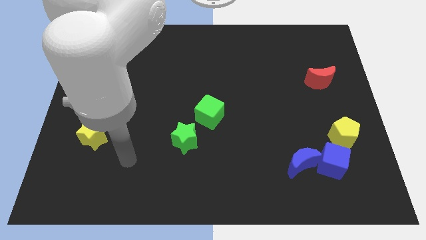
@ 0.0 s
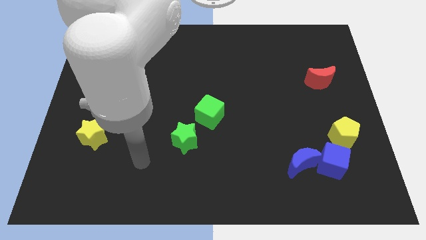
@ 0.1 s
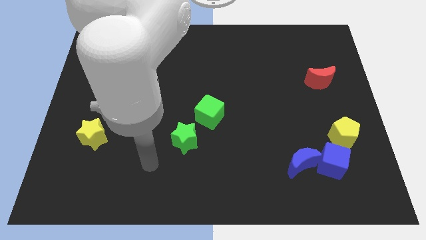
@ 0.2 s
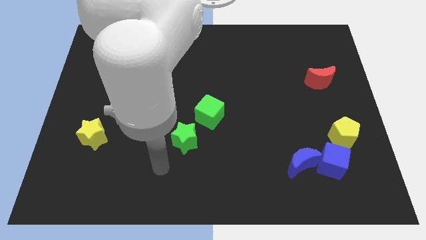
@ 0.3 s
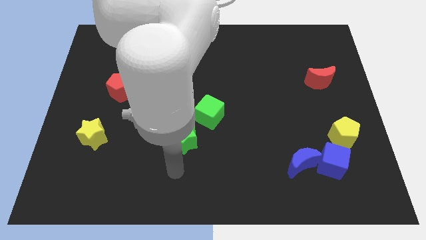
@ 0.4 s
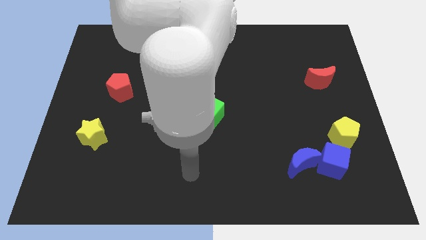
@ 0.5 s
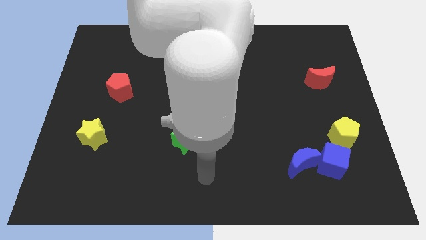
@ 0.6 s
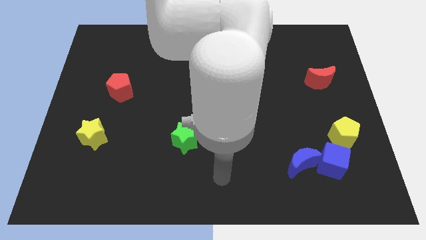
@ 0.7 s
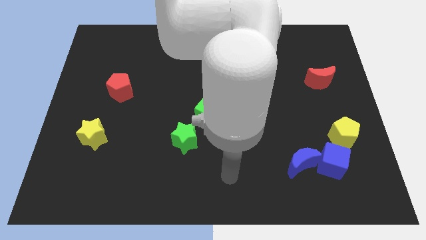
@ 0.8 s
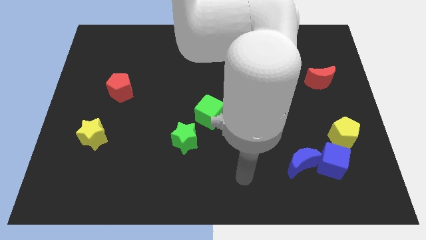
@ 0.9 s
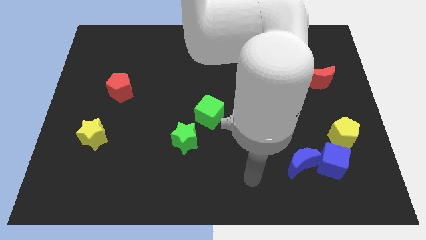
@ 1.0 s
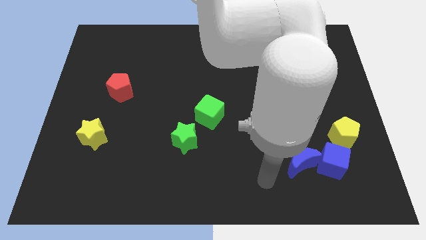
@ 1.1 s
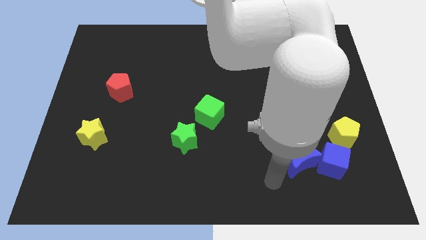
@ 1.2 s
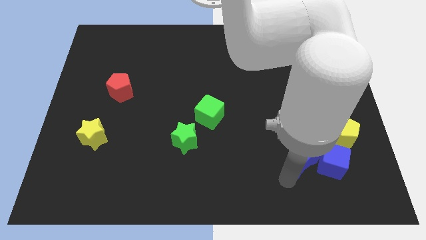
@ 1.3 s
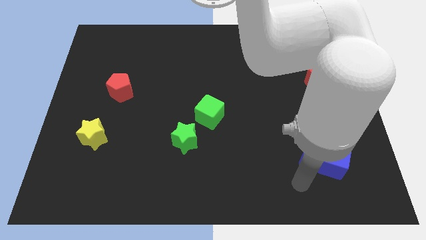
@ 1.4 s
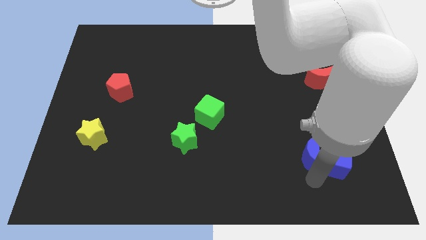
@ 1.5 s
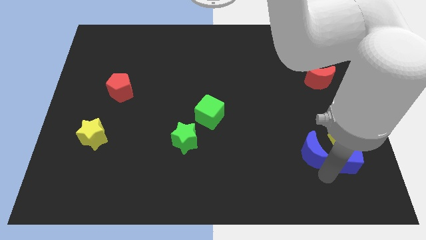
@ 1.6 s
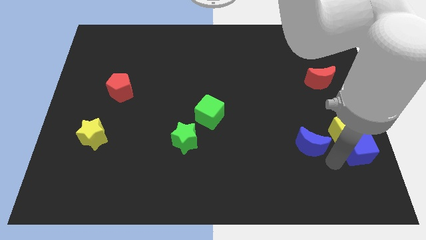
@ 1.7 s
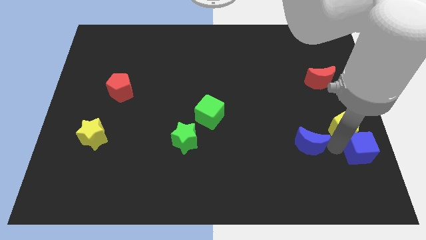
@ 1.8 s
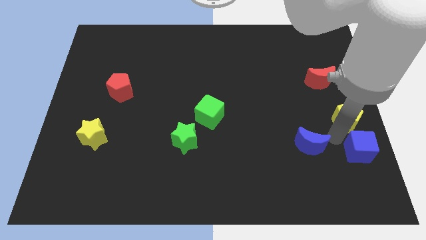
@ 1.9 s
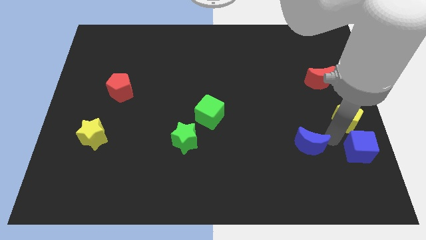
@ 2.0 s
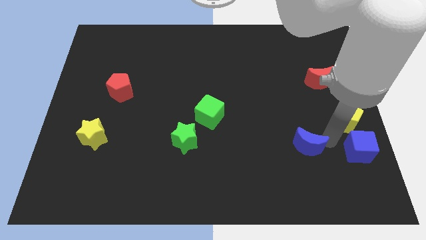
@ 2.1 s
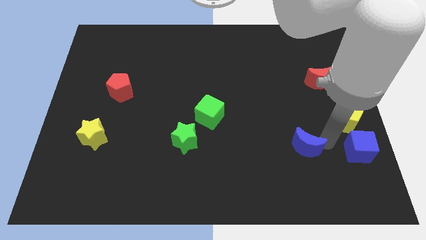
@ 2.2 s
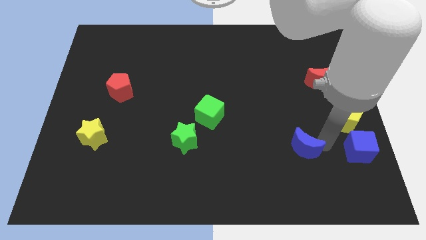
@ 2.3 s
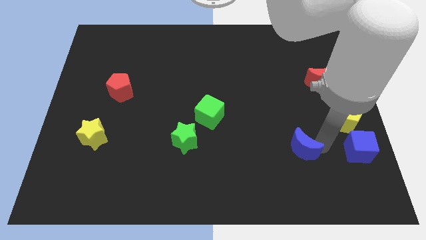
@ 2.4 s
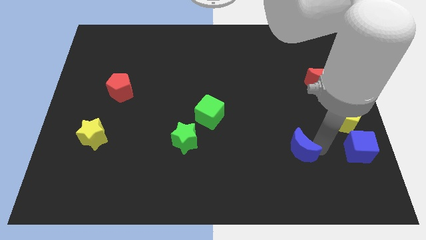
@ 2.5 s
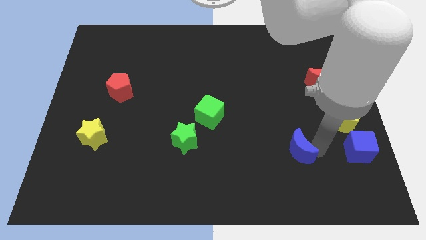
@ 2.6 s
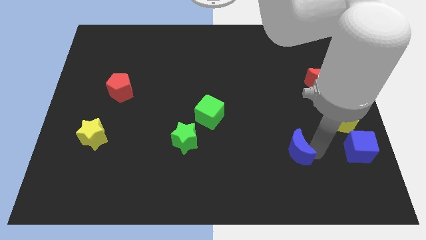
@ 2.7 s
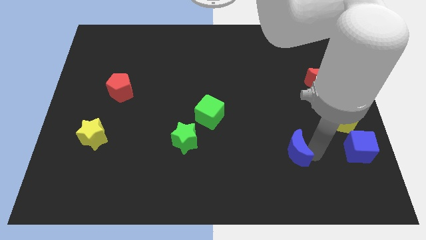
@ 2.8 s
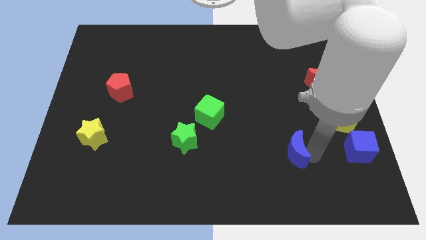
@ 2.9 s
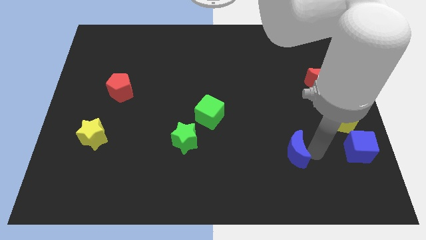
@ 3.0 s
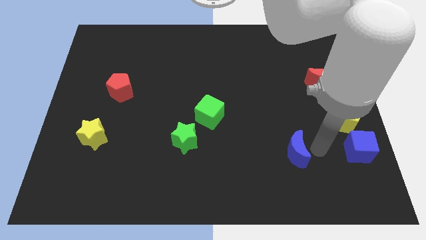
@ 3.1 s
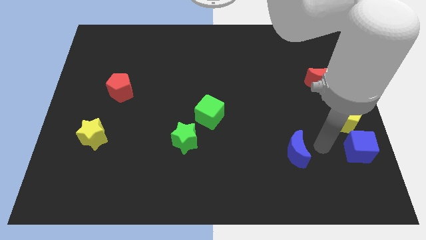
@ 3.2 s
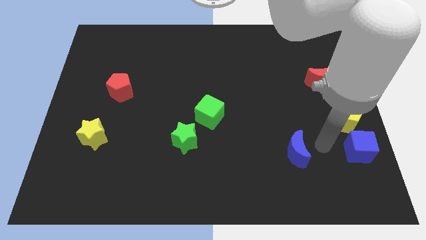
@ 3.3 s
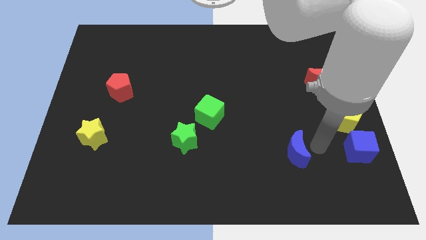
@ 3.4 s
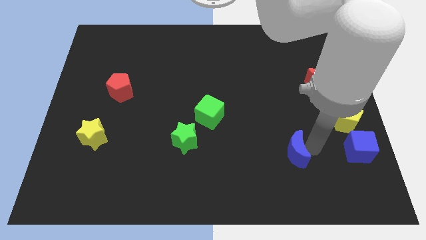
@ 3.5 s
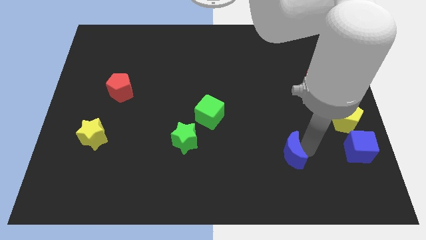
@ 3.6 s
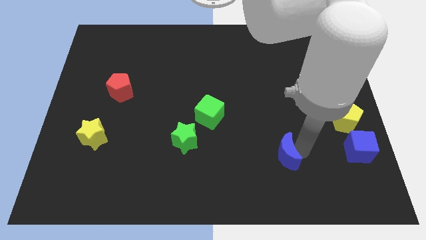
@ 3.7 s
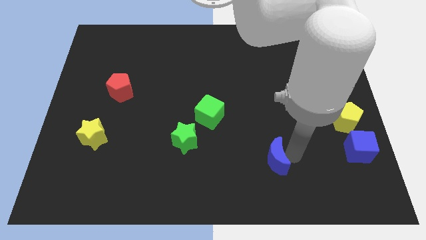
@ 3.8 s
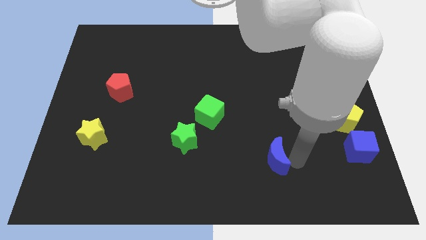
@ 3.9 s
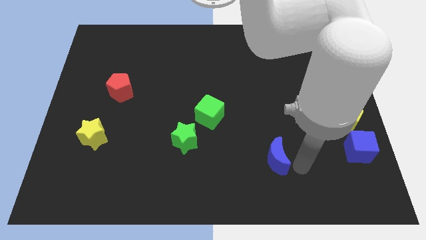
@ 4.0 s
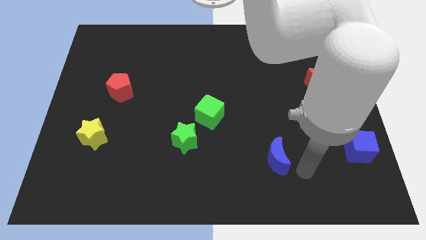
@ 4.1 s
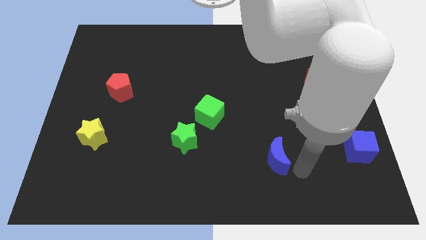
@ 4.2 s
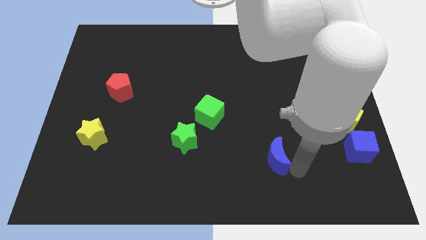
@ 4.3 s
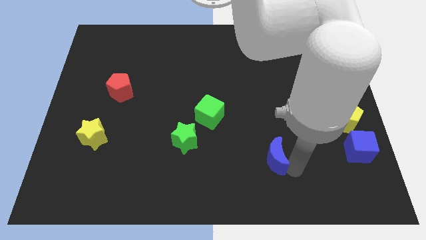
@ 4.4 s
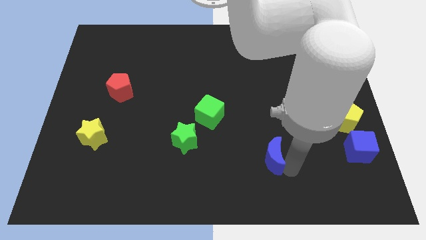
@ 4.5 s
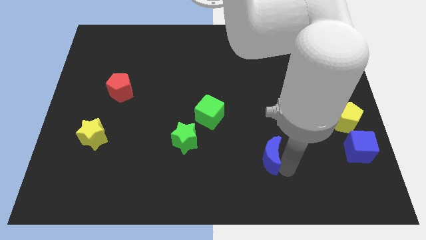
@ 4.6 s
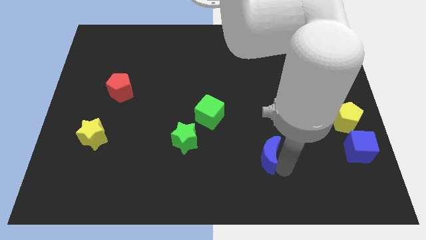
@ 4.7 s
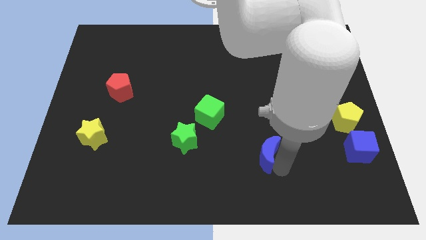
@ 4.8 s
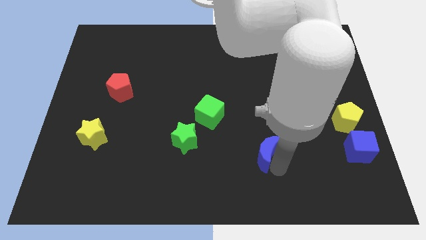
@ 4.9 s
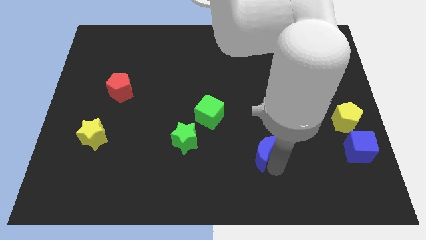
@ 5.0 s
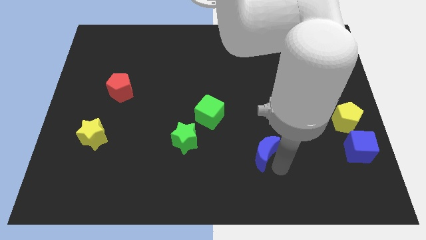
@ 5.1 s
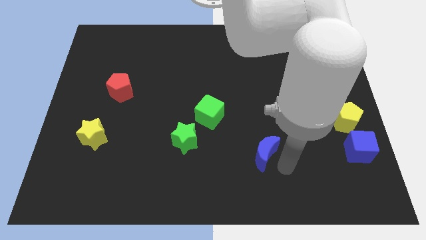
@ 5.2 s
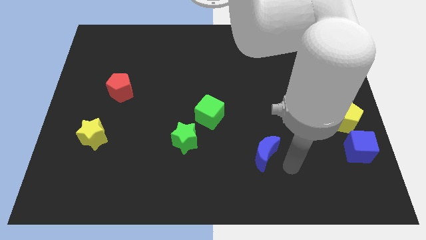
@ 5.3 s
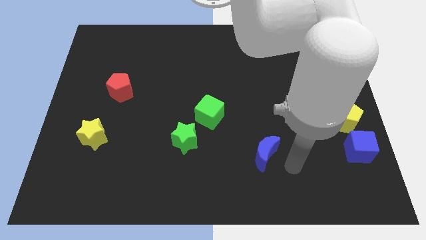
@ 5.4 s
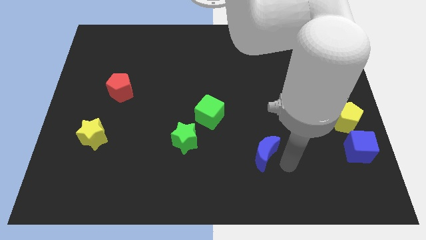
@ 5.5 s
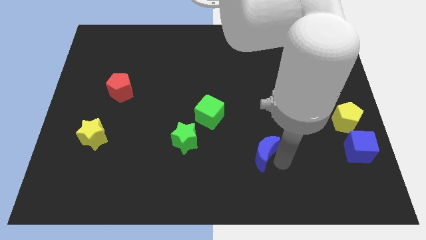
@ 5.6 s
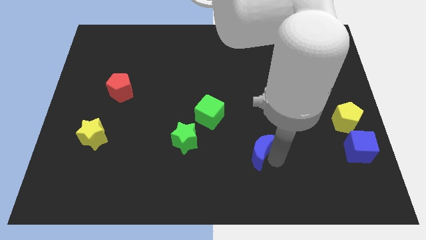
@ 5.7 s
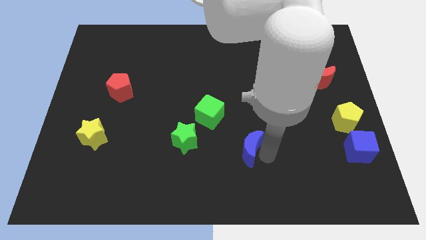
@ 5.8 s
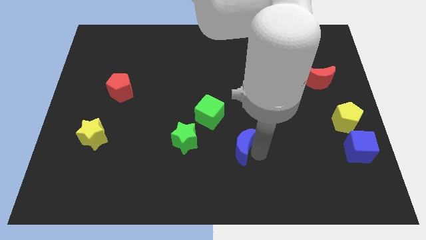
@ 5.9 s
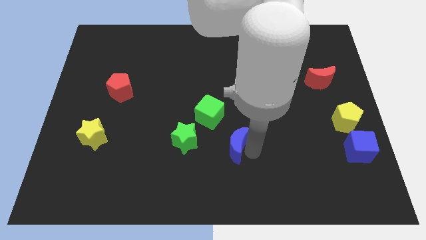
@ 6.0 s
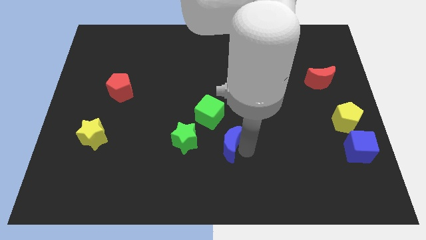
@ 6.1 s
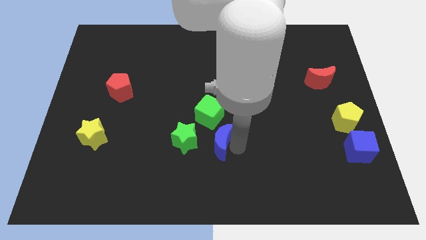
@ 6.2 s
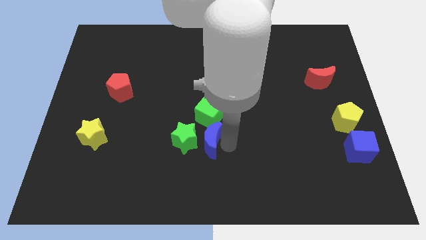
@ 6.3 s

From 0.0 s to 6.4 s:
push the blue moon to the green star

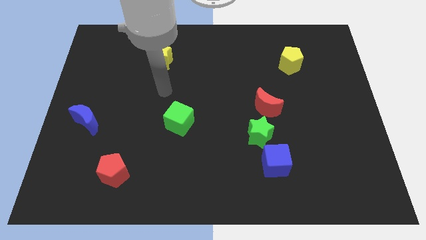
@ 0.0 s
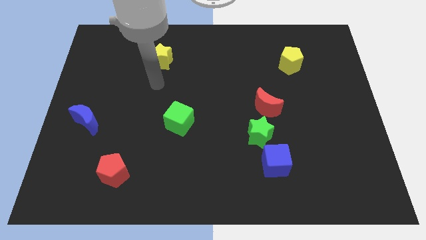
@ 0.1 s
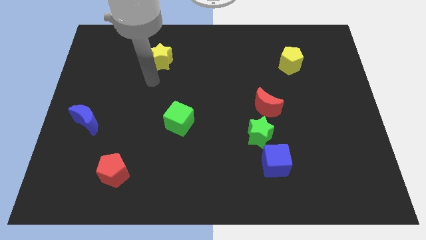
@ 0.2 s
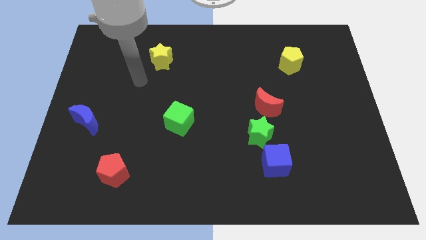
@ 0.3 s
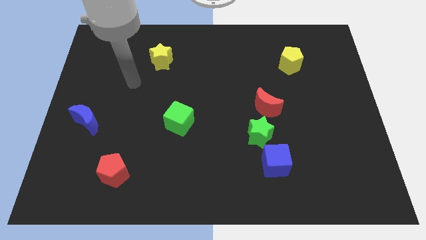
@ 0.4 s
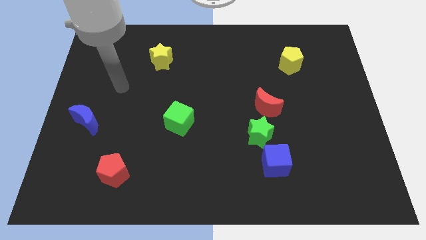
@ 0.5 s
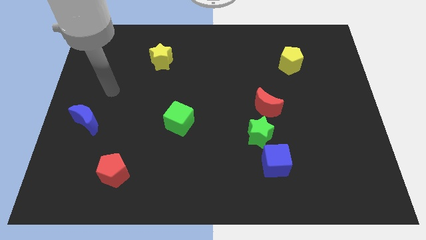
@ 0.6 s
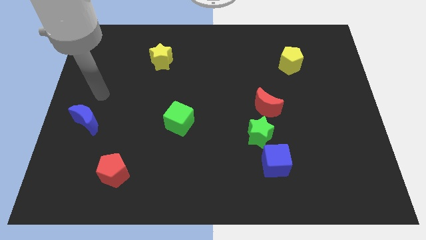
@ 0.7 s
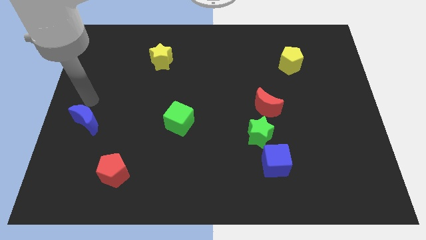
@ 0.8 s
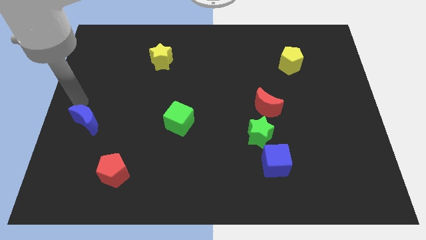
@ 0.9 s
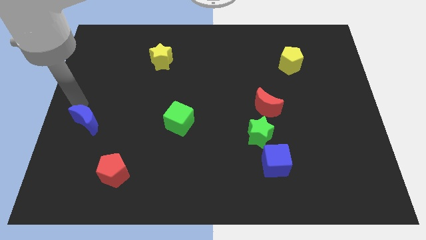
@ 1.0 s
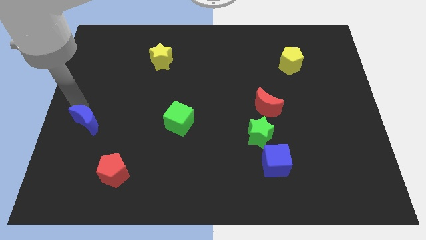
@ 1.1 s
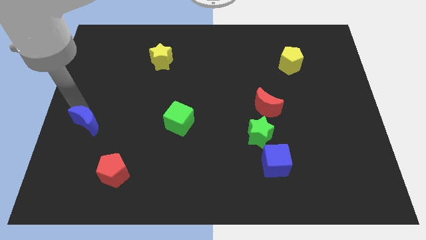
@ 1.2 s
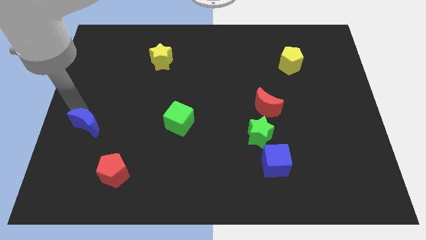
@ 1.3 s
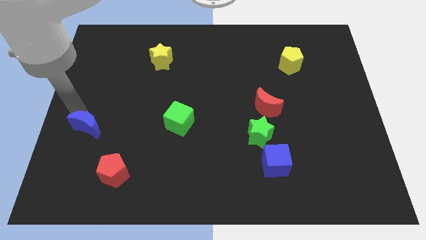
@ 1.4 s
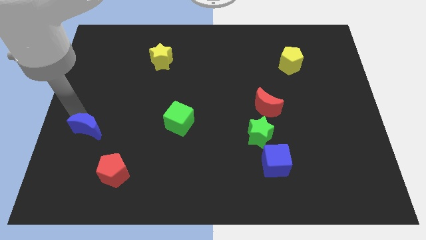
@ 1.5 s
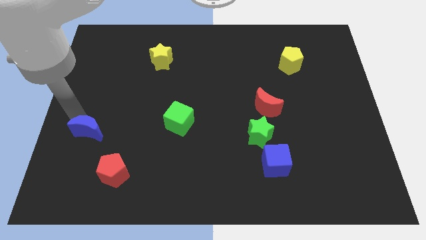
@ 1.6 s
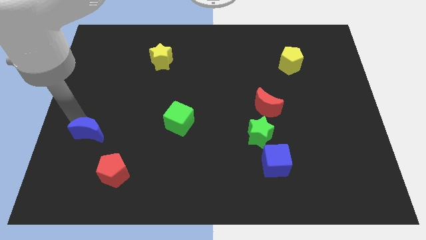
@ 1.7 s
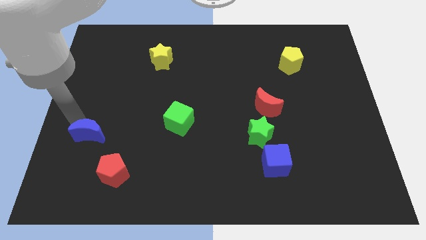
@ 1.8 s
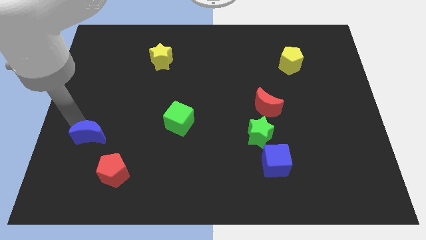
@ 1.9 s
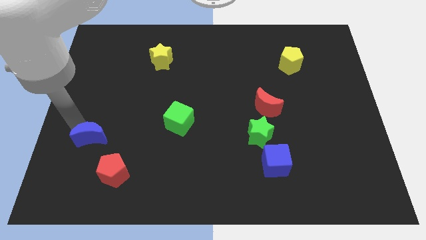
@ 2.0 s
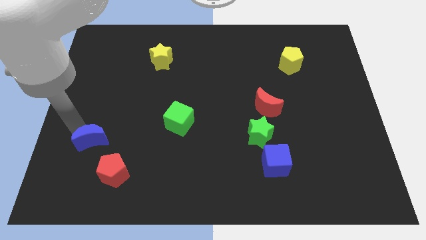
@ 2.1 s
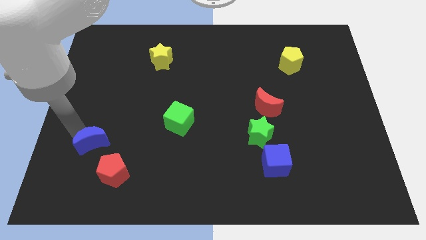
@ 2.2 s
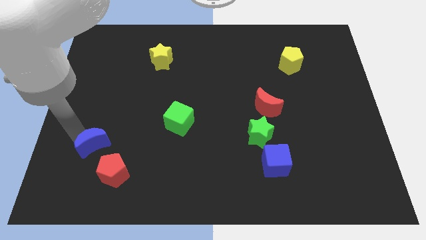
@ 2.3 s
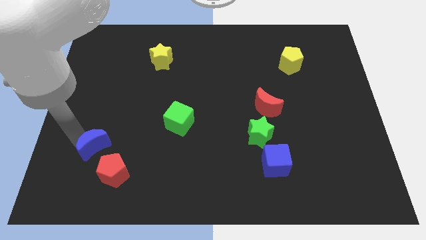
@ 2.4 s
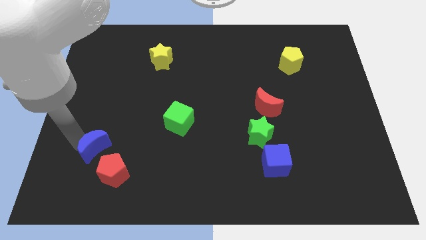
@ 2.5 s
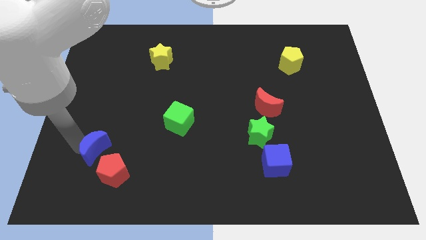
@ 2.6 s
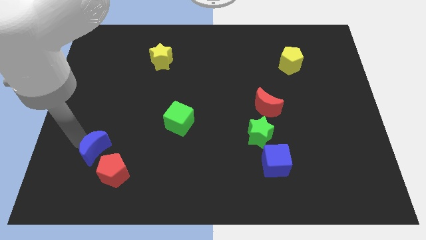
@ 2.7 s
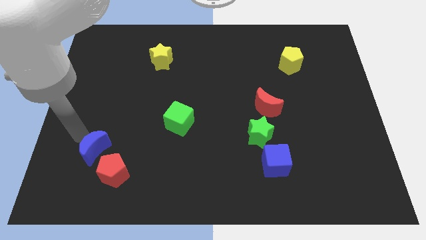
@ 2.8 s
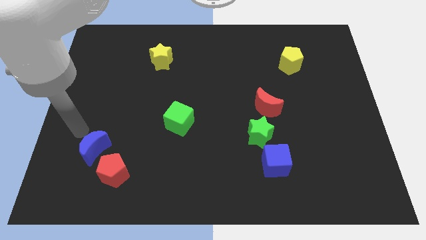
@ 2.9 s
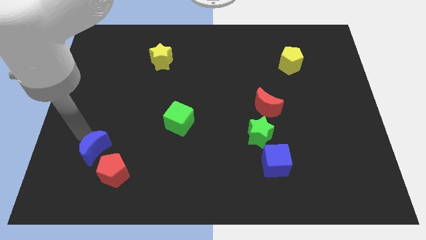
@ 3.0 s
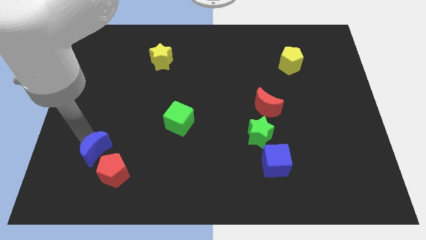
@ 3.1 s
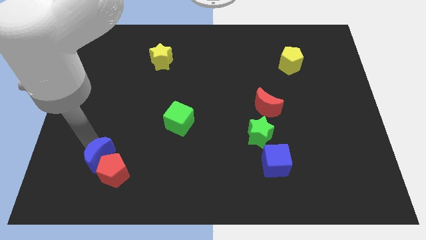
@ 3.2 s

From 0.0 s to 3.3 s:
push the blue moon next to the red pentagon
